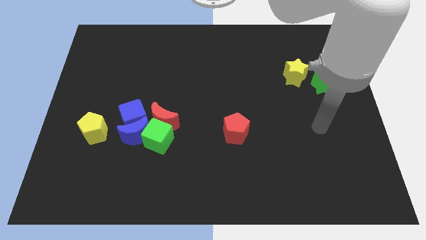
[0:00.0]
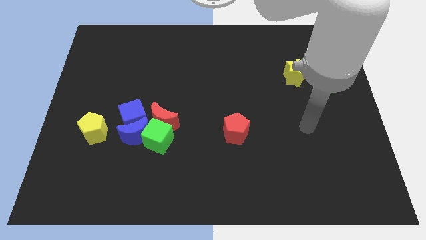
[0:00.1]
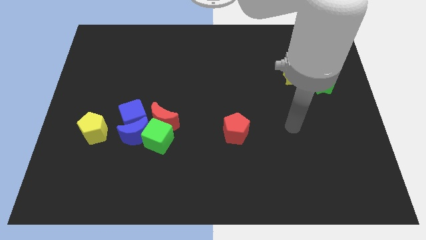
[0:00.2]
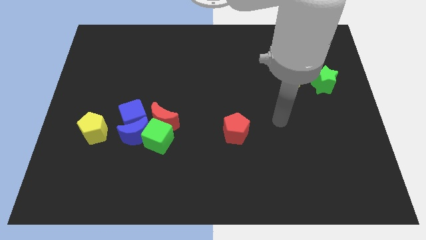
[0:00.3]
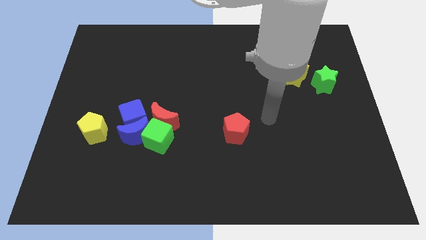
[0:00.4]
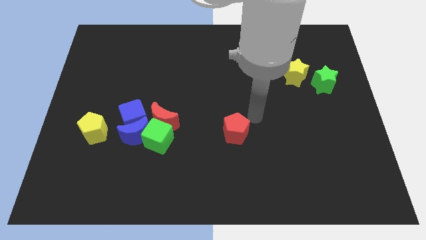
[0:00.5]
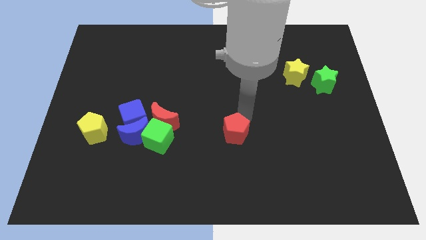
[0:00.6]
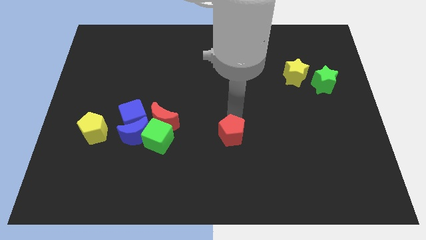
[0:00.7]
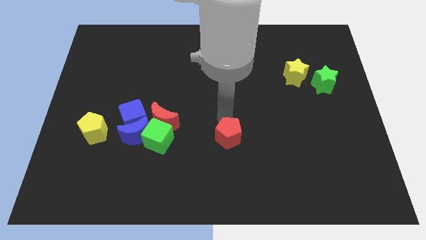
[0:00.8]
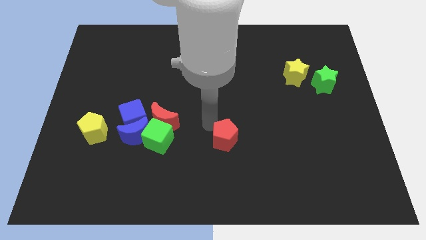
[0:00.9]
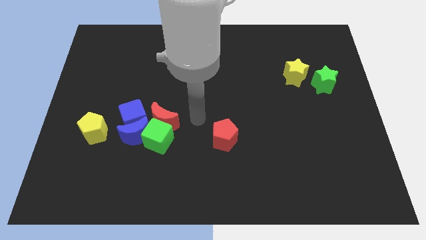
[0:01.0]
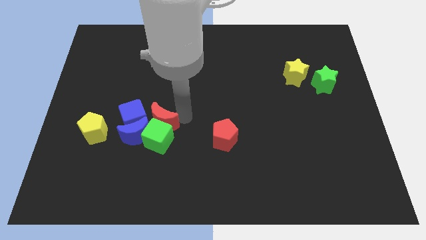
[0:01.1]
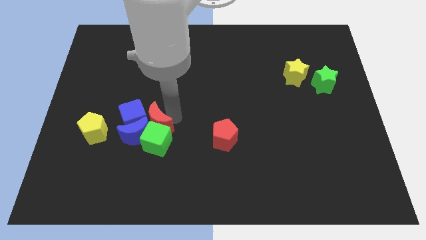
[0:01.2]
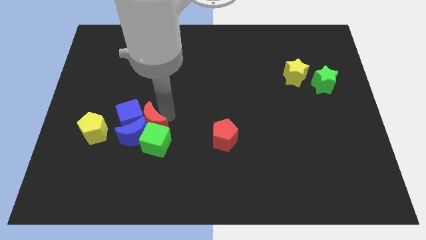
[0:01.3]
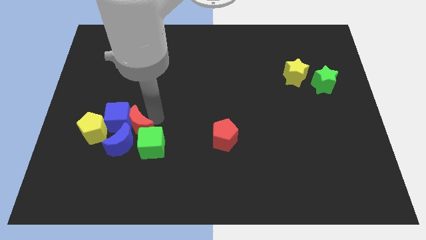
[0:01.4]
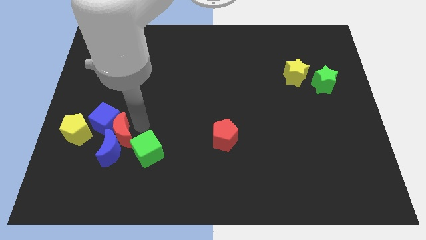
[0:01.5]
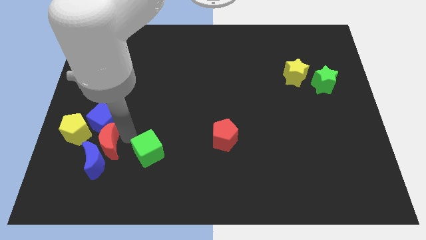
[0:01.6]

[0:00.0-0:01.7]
separate the green cube from the group

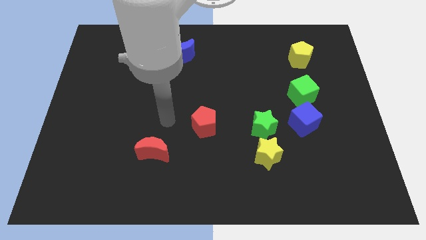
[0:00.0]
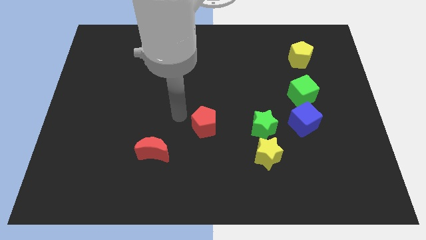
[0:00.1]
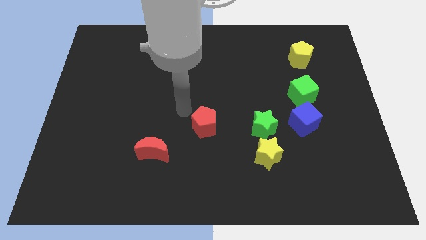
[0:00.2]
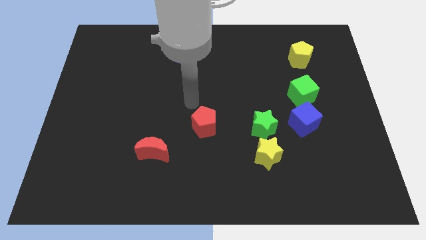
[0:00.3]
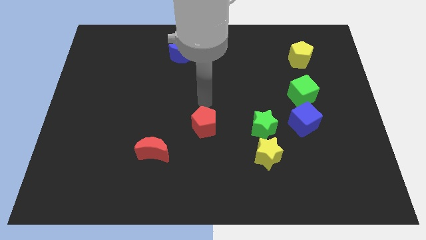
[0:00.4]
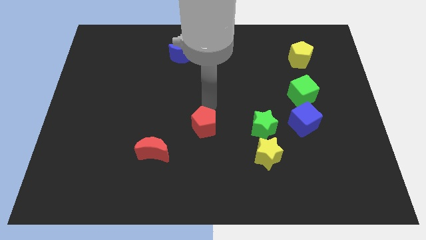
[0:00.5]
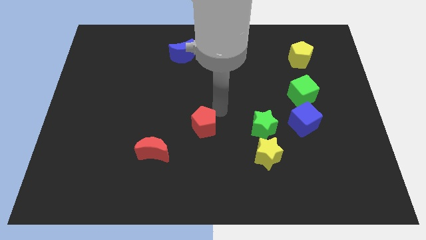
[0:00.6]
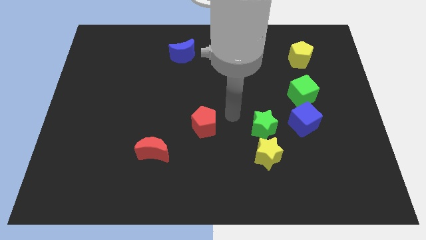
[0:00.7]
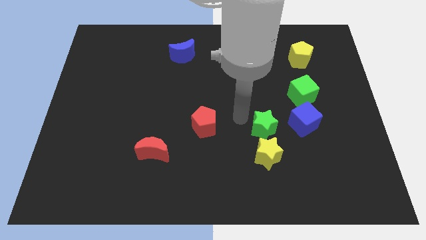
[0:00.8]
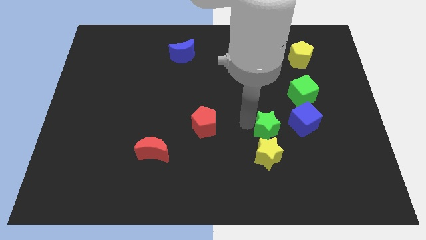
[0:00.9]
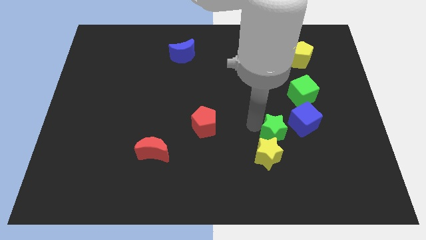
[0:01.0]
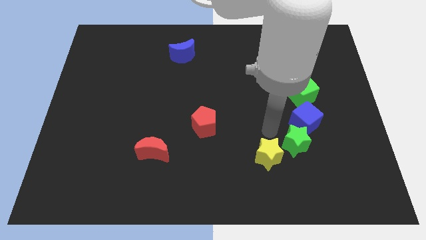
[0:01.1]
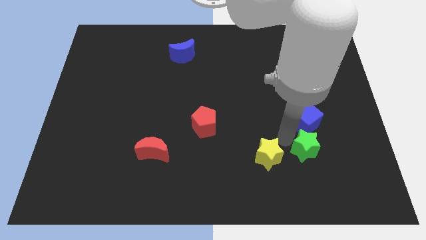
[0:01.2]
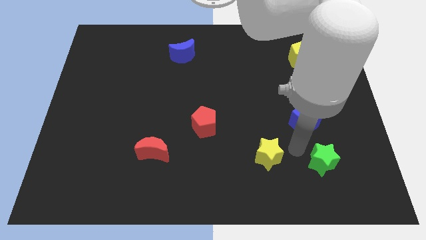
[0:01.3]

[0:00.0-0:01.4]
move the yellow star away from the green star

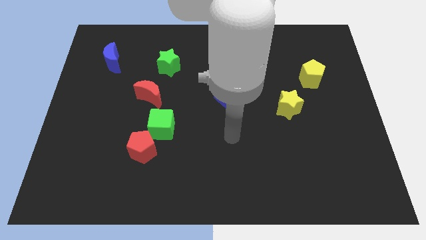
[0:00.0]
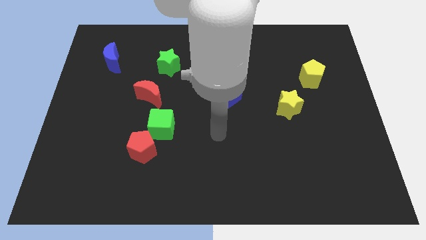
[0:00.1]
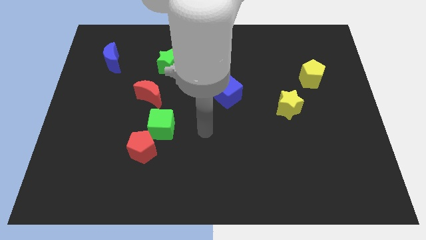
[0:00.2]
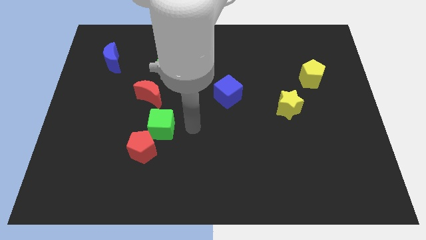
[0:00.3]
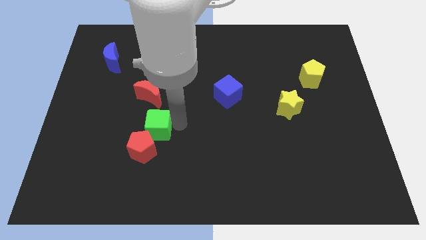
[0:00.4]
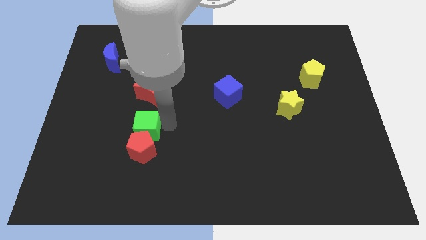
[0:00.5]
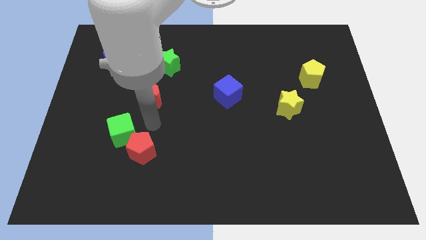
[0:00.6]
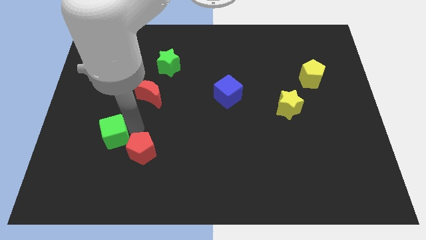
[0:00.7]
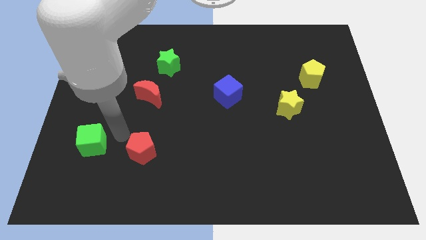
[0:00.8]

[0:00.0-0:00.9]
separate the red pentagon from the green cube

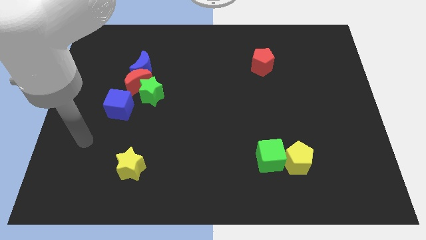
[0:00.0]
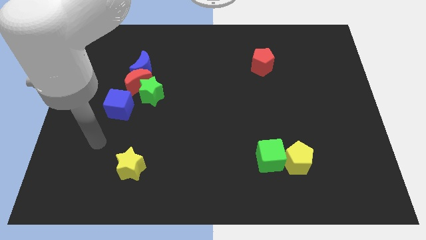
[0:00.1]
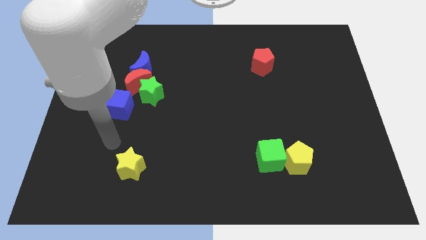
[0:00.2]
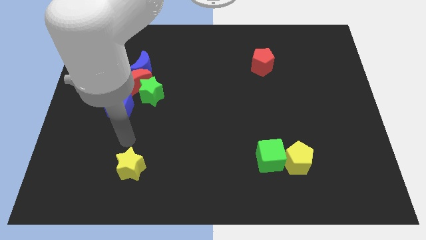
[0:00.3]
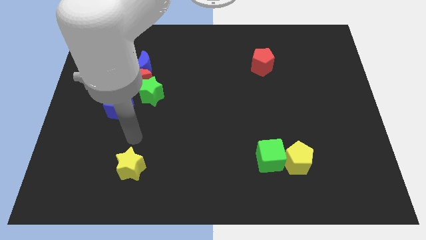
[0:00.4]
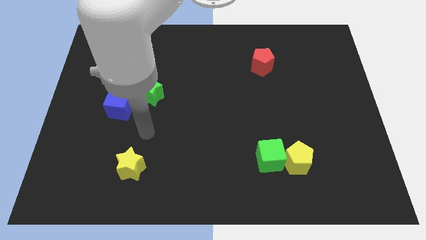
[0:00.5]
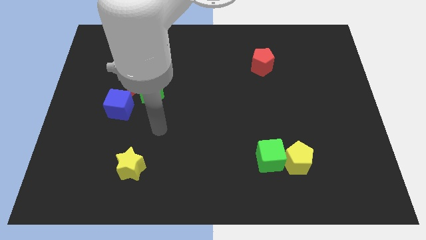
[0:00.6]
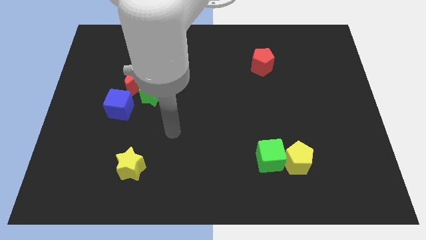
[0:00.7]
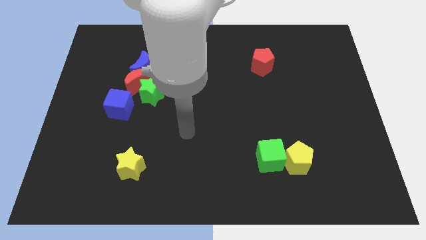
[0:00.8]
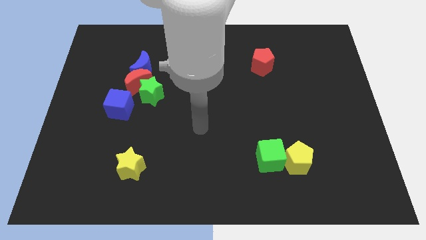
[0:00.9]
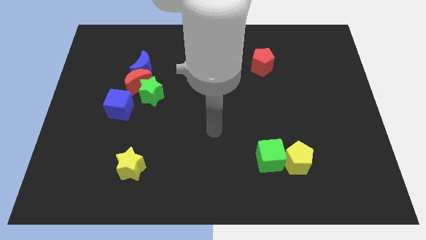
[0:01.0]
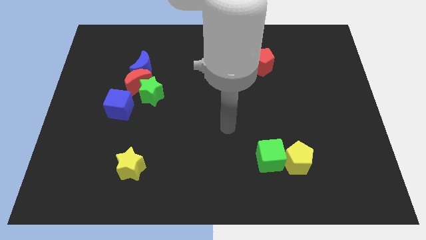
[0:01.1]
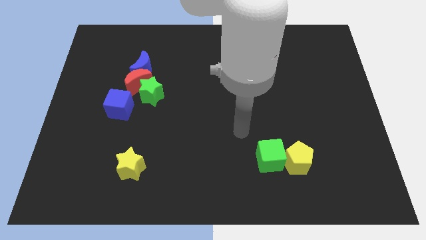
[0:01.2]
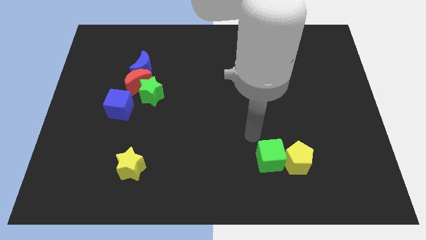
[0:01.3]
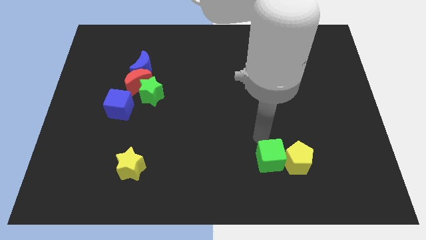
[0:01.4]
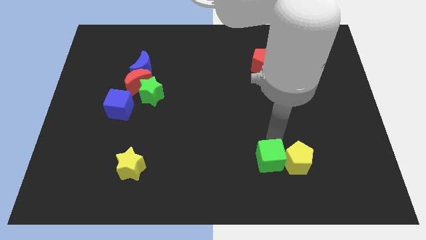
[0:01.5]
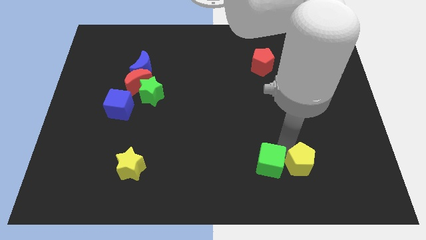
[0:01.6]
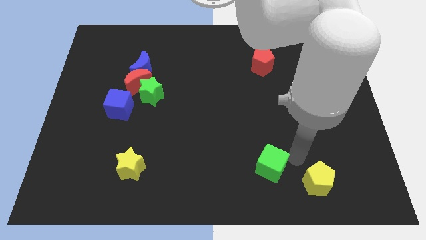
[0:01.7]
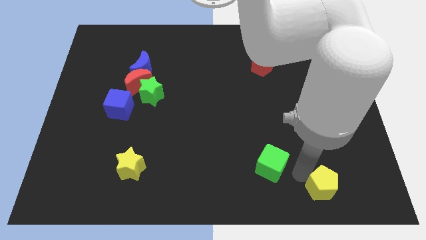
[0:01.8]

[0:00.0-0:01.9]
pull the green cube apart from the yellow pentagon

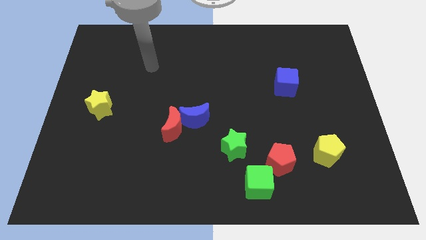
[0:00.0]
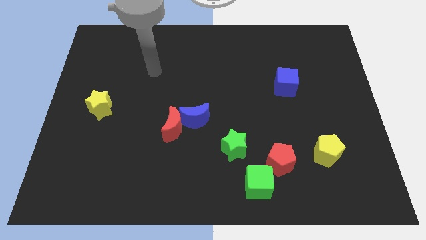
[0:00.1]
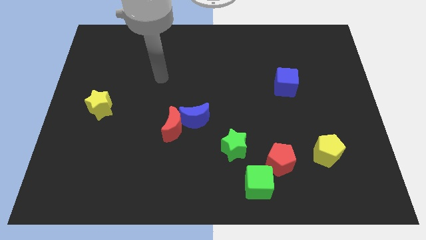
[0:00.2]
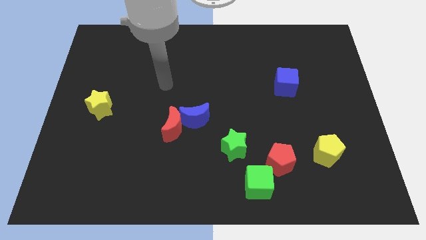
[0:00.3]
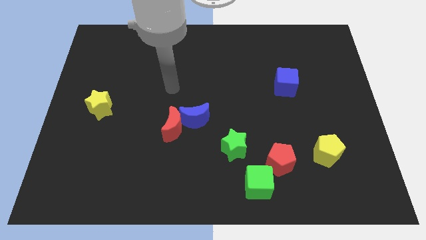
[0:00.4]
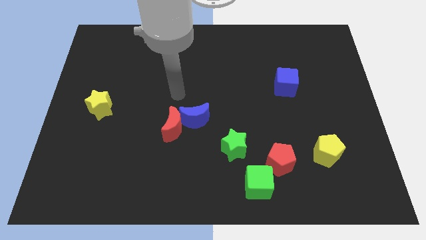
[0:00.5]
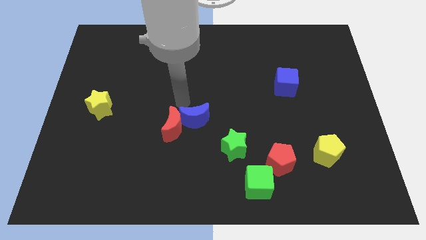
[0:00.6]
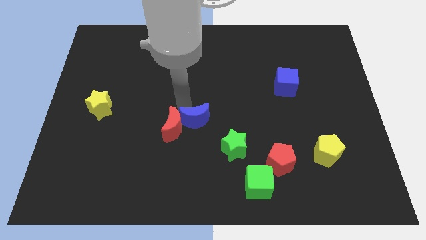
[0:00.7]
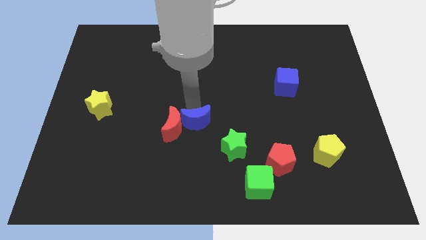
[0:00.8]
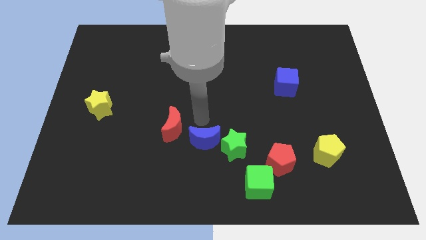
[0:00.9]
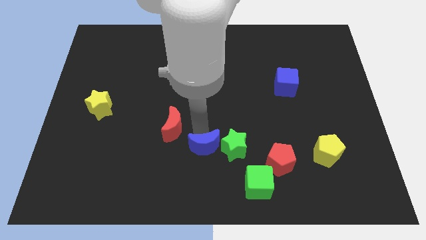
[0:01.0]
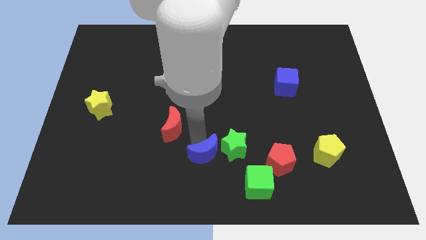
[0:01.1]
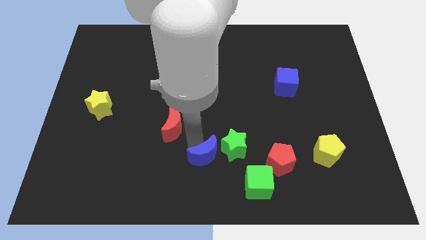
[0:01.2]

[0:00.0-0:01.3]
move the red moon away from the blue moon

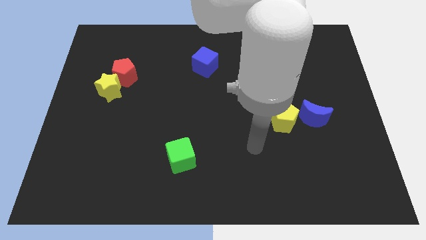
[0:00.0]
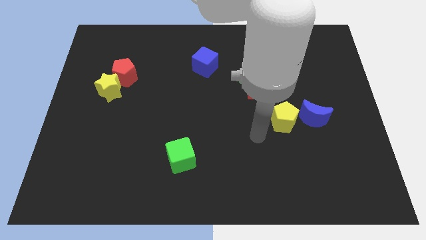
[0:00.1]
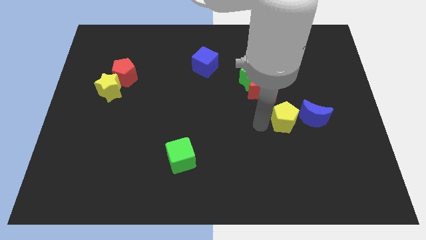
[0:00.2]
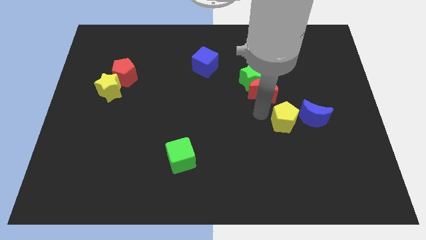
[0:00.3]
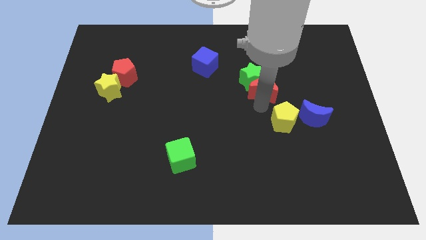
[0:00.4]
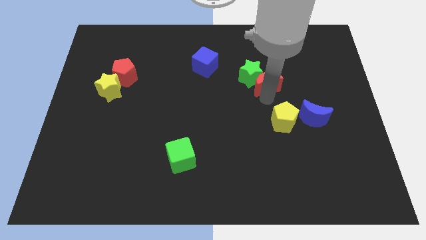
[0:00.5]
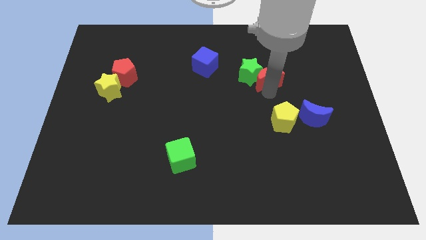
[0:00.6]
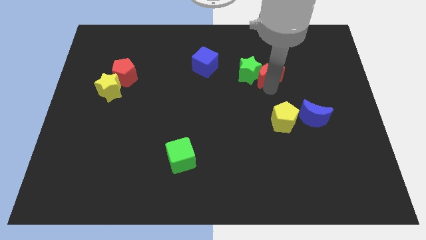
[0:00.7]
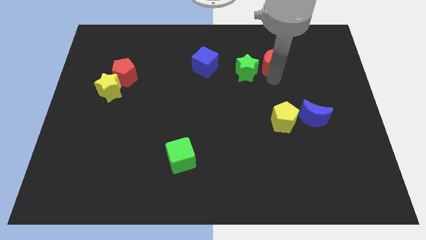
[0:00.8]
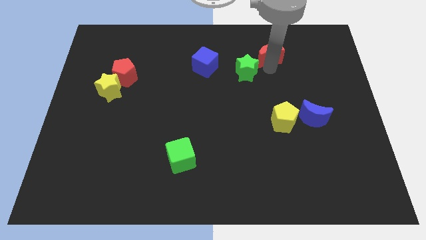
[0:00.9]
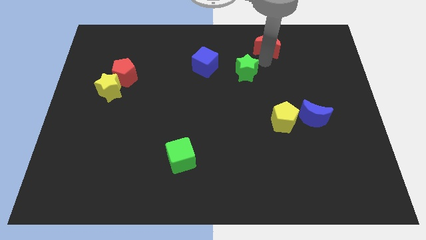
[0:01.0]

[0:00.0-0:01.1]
pull the green star apart from the red moon

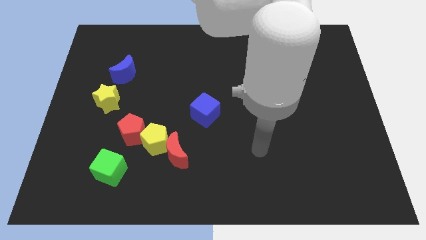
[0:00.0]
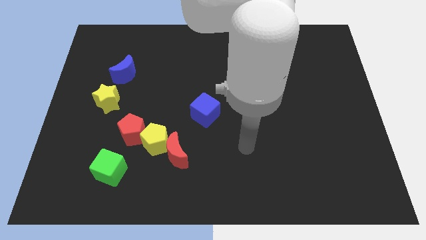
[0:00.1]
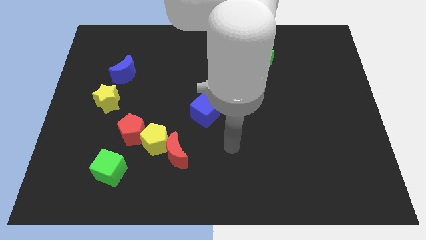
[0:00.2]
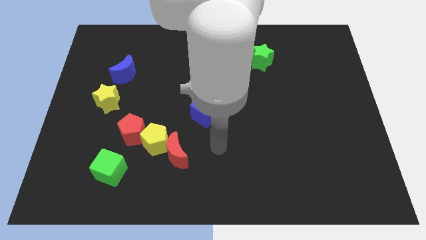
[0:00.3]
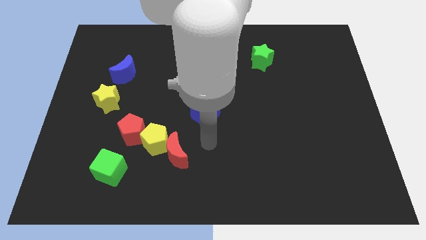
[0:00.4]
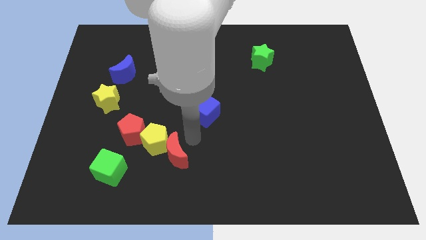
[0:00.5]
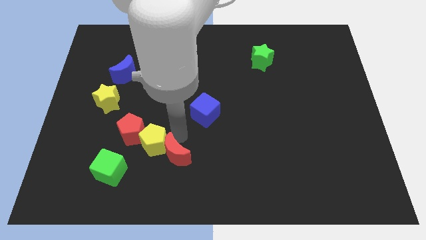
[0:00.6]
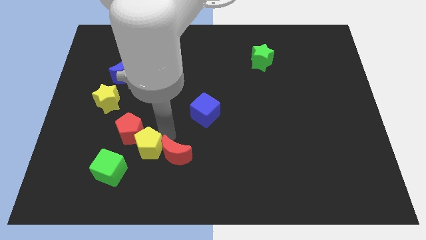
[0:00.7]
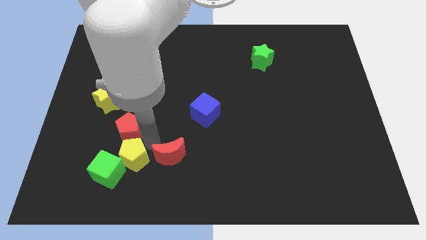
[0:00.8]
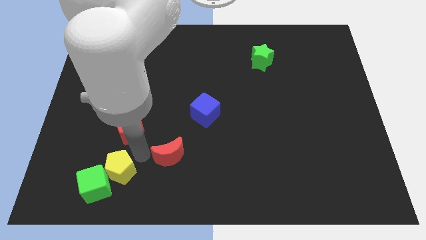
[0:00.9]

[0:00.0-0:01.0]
pull the red moon apart from the yellow pentagon
